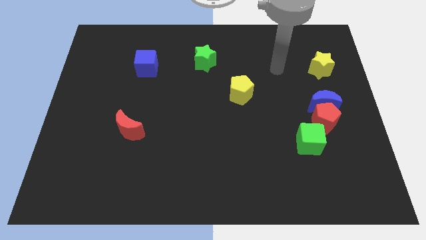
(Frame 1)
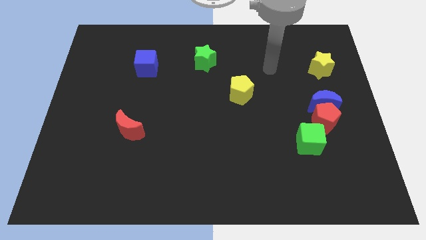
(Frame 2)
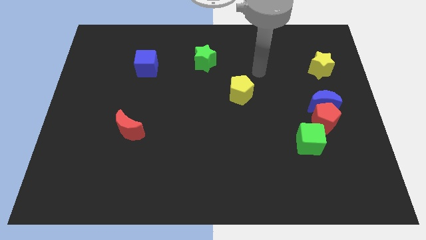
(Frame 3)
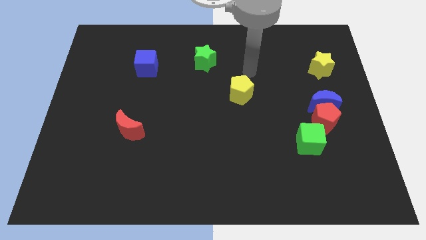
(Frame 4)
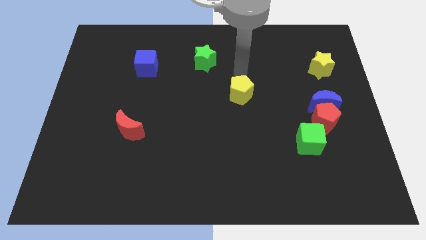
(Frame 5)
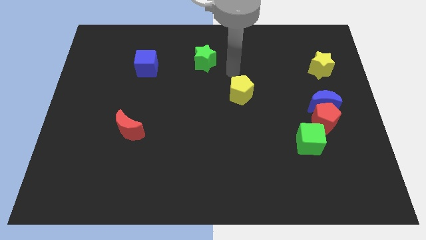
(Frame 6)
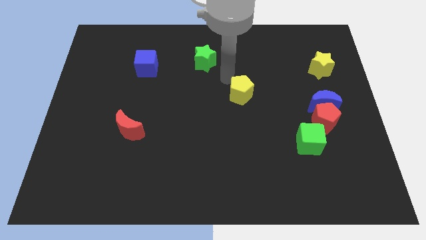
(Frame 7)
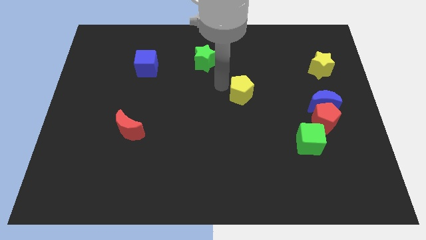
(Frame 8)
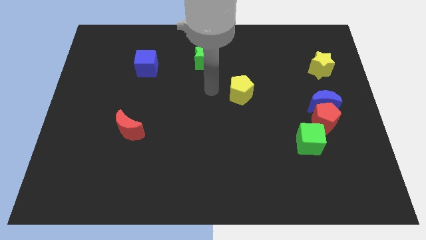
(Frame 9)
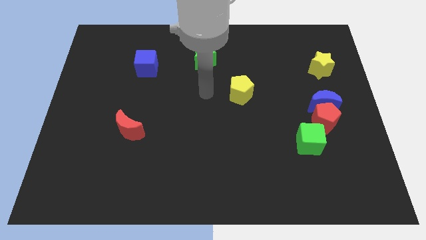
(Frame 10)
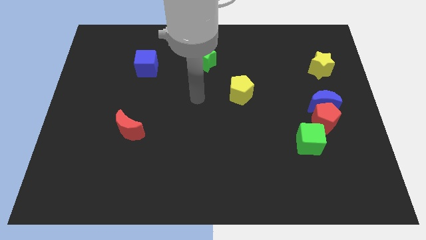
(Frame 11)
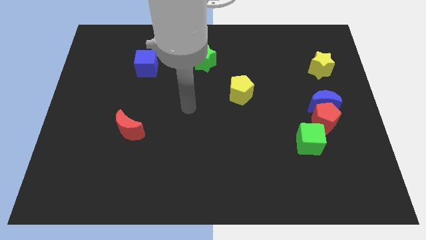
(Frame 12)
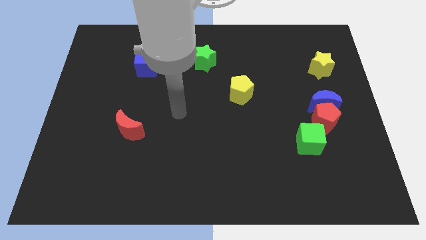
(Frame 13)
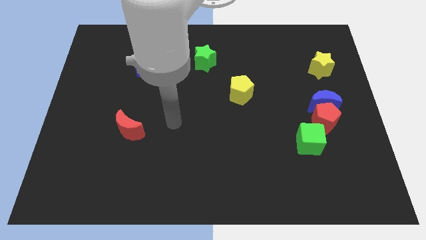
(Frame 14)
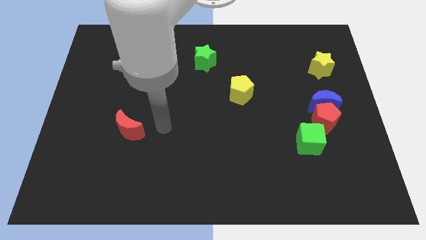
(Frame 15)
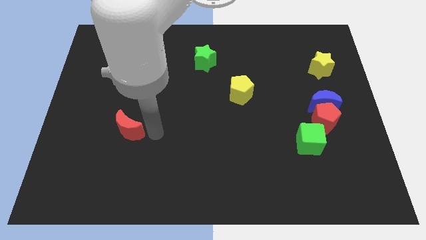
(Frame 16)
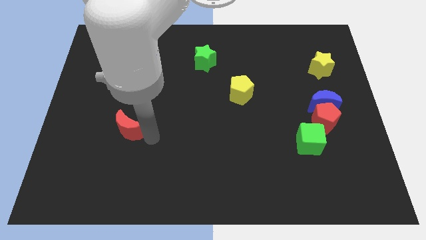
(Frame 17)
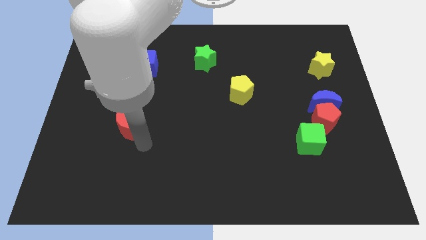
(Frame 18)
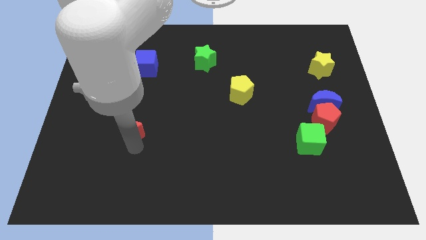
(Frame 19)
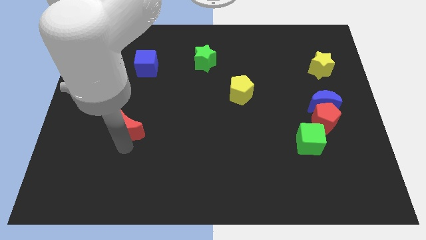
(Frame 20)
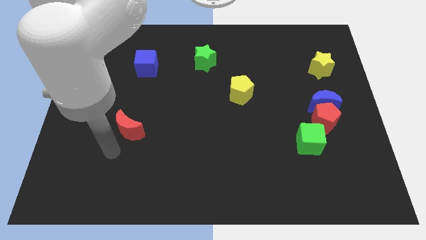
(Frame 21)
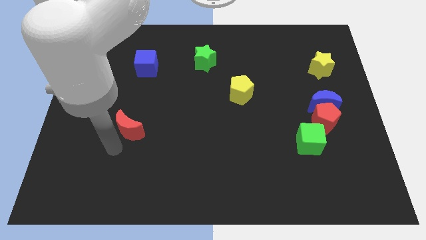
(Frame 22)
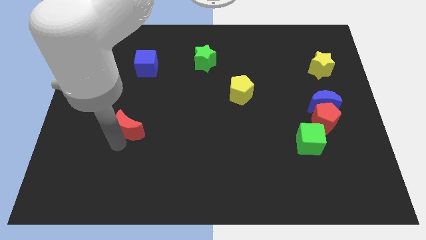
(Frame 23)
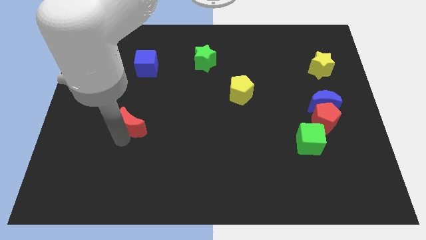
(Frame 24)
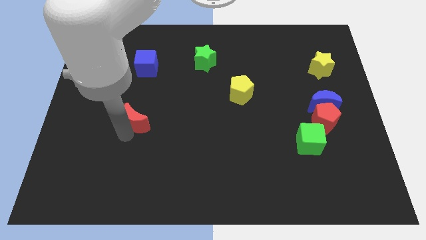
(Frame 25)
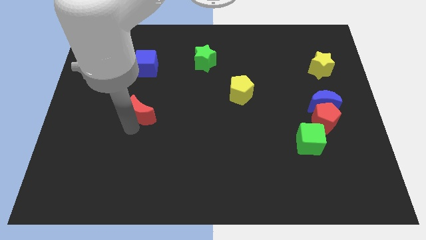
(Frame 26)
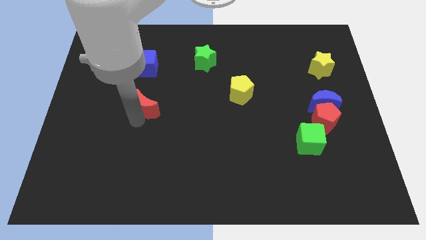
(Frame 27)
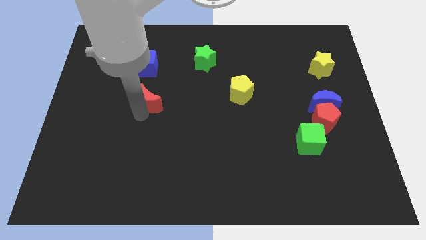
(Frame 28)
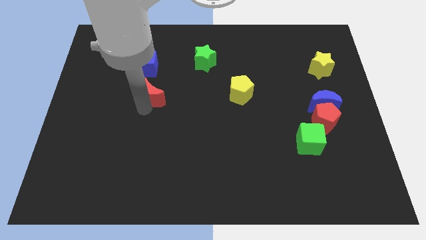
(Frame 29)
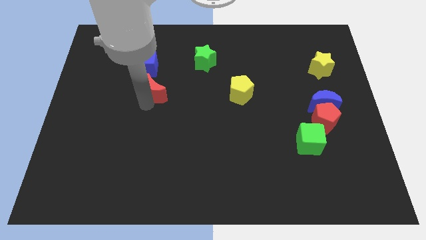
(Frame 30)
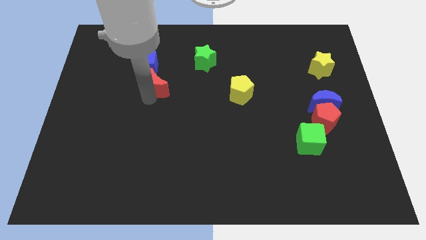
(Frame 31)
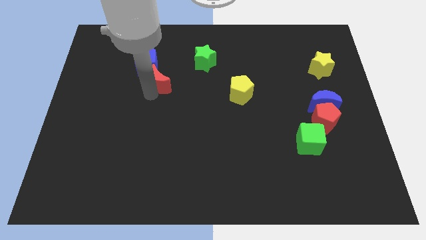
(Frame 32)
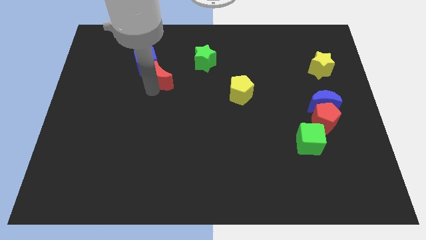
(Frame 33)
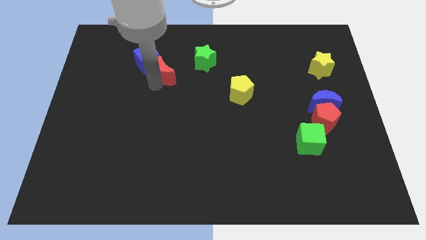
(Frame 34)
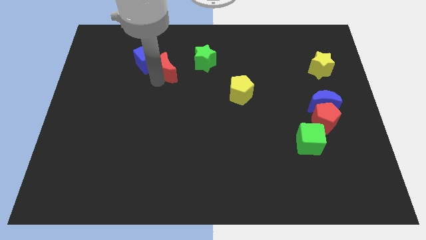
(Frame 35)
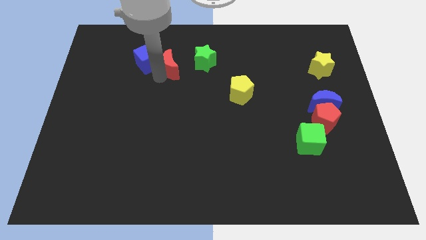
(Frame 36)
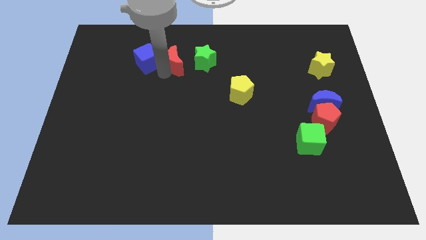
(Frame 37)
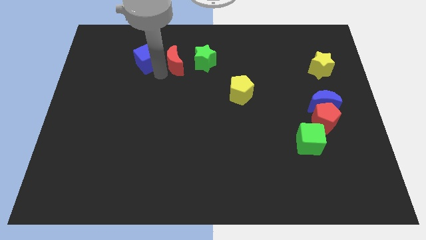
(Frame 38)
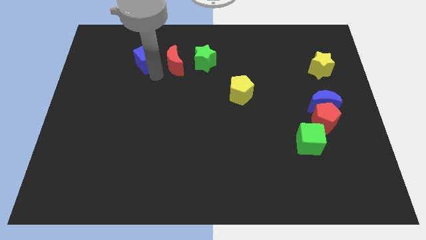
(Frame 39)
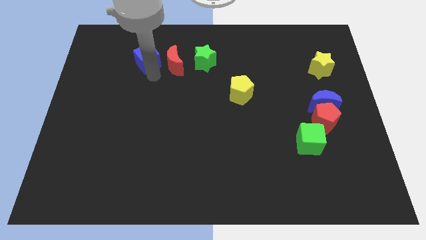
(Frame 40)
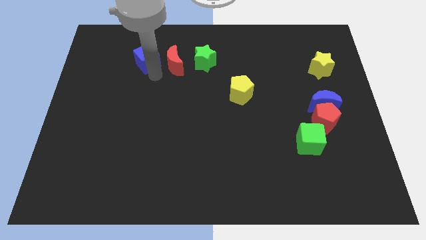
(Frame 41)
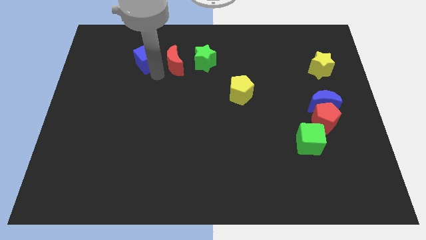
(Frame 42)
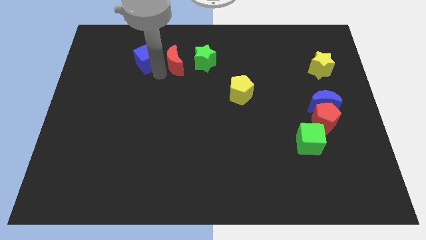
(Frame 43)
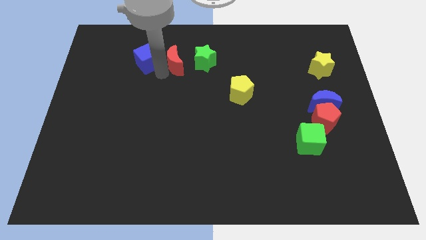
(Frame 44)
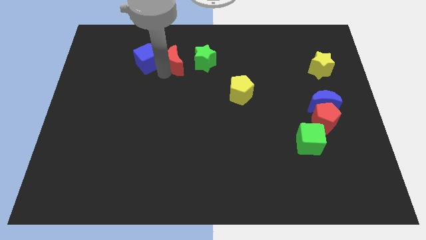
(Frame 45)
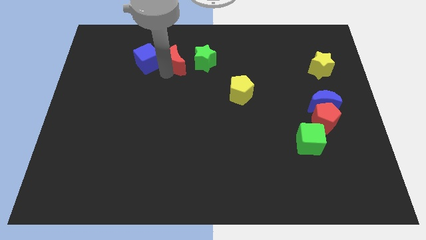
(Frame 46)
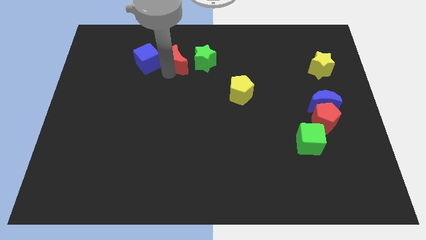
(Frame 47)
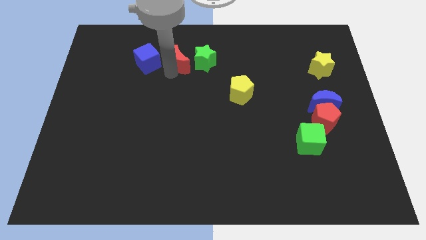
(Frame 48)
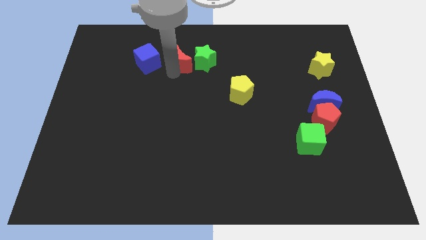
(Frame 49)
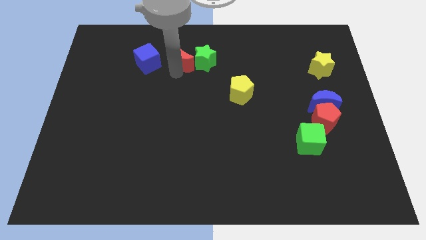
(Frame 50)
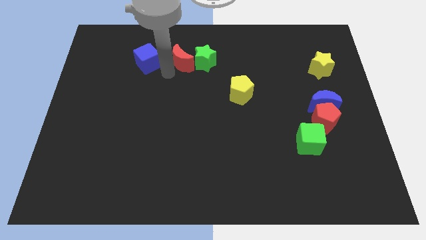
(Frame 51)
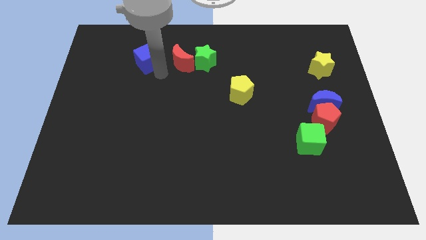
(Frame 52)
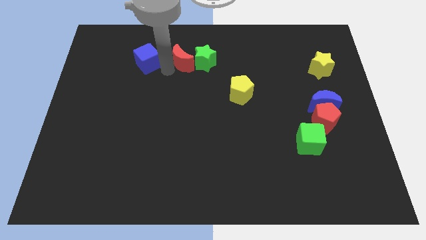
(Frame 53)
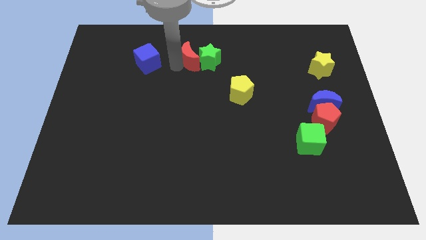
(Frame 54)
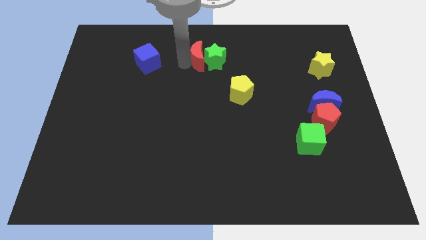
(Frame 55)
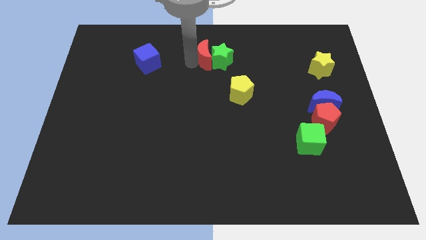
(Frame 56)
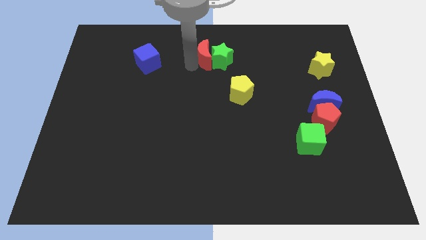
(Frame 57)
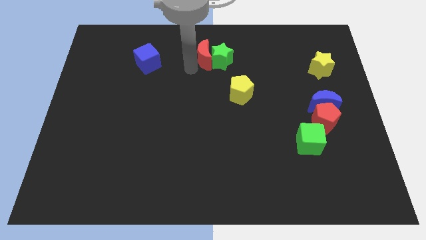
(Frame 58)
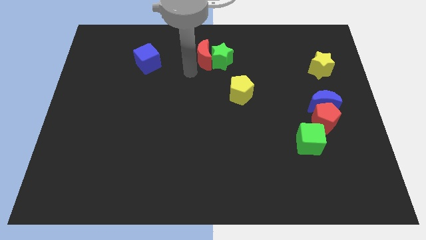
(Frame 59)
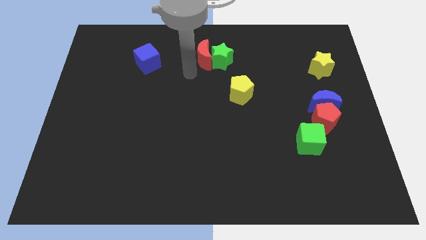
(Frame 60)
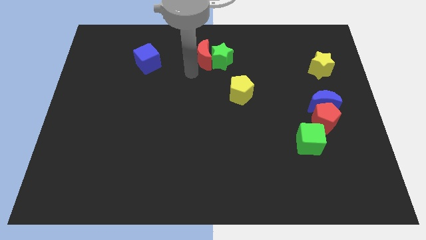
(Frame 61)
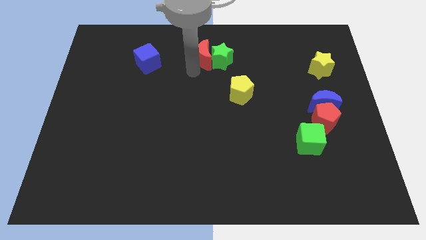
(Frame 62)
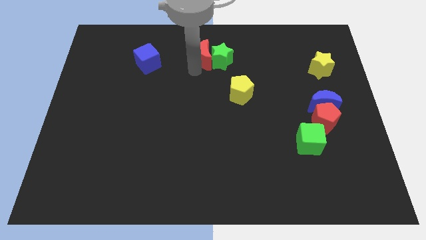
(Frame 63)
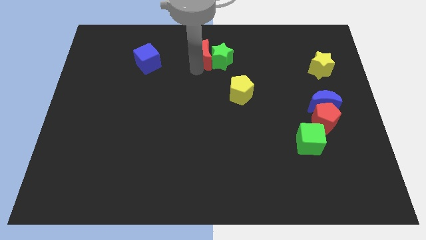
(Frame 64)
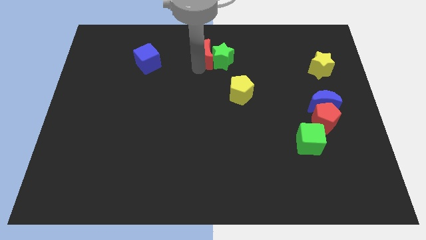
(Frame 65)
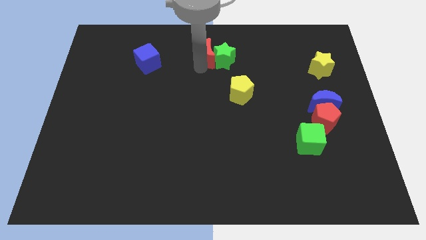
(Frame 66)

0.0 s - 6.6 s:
put the red moon to the top

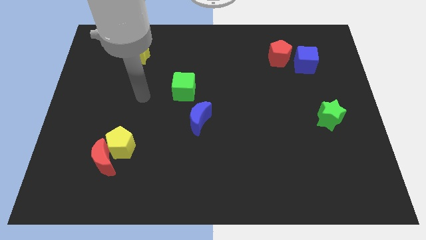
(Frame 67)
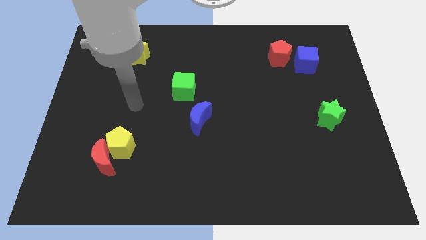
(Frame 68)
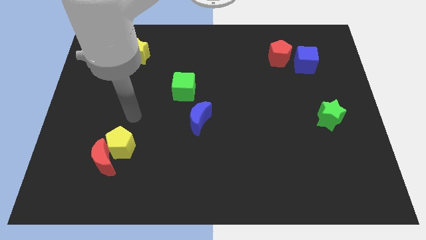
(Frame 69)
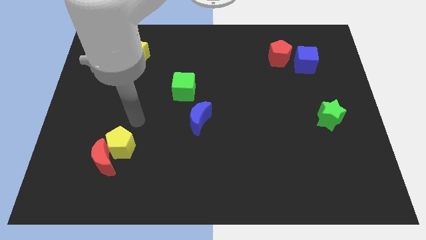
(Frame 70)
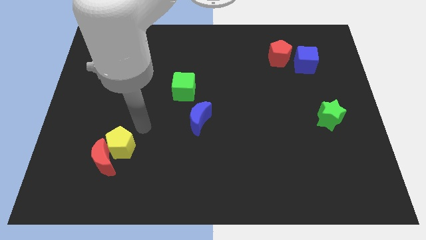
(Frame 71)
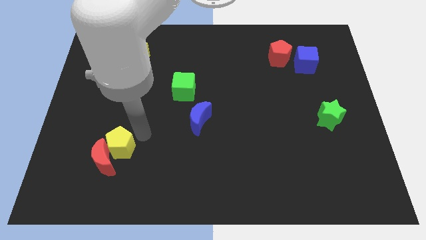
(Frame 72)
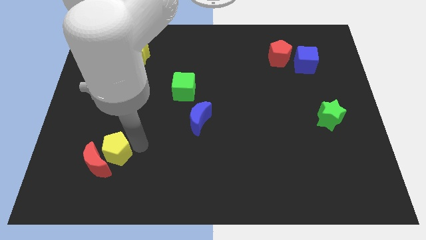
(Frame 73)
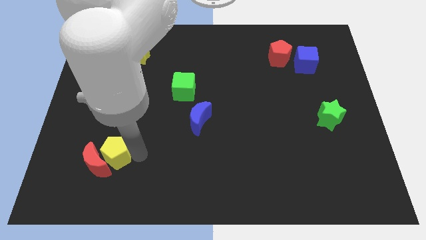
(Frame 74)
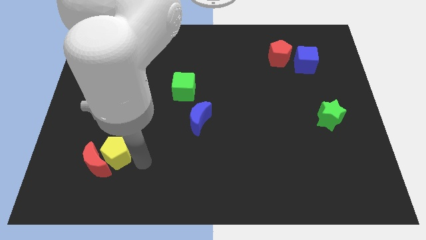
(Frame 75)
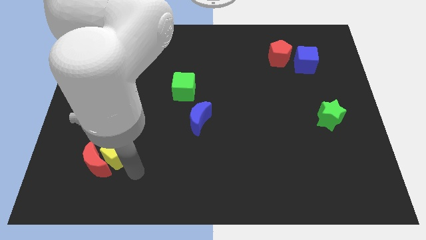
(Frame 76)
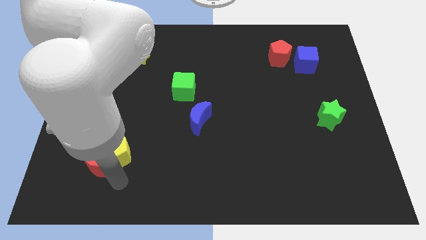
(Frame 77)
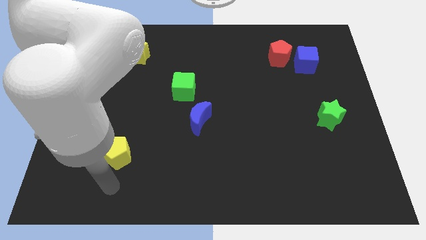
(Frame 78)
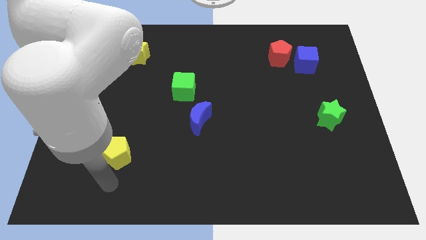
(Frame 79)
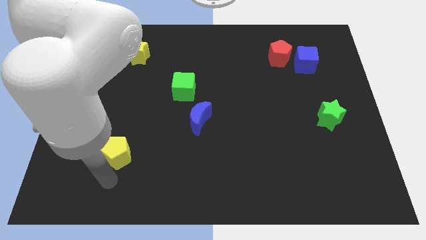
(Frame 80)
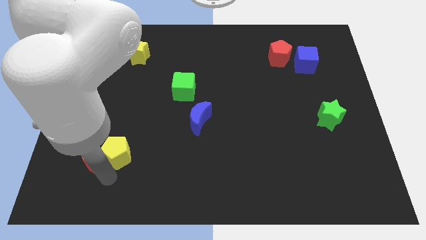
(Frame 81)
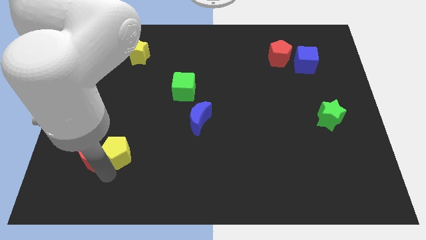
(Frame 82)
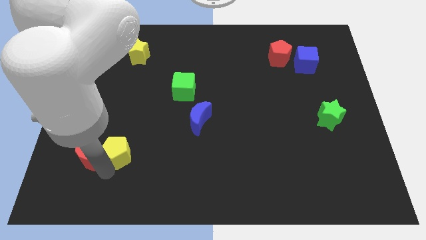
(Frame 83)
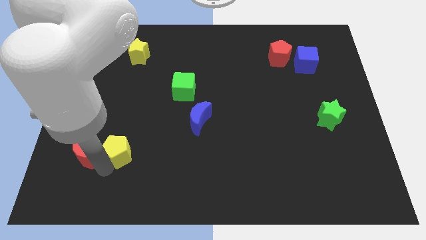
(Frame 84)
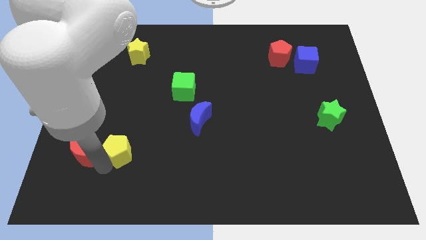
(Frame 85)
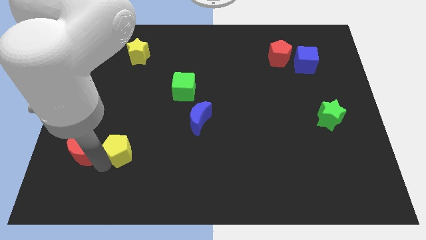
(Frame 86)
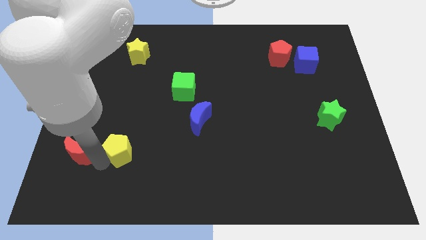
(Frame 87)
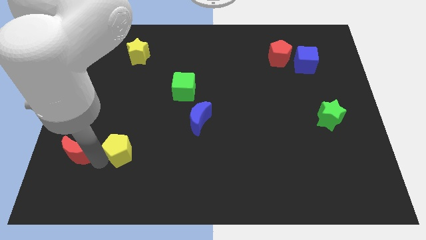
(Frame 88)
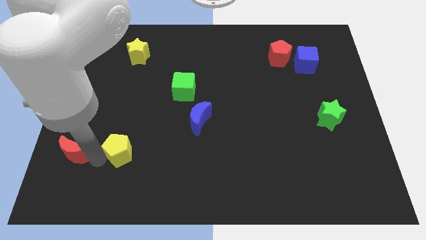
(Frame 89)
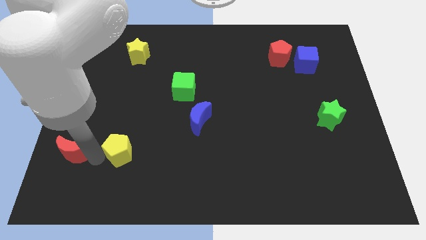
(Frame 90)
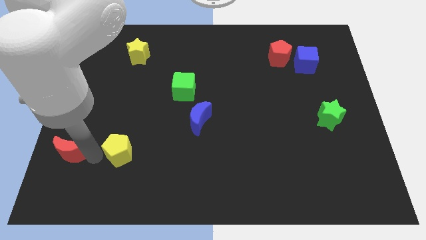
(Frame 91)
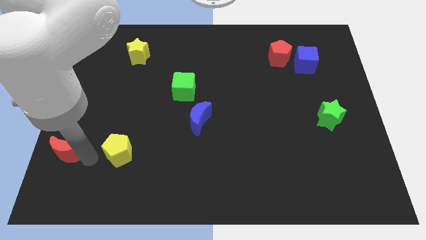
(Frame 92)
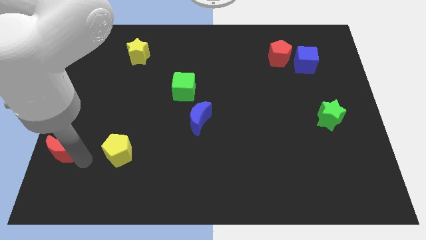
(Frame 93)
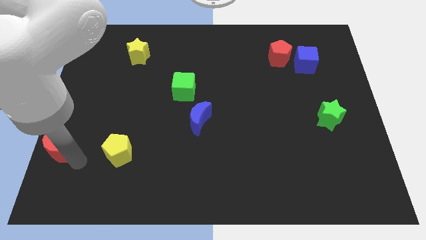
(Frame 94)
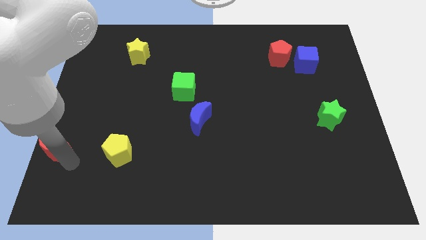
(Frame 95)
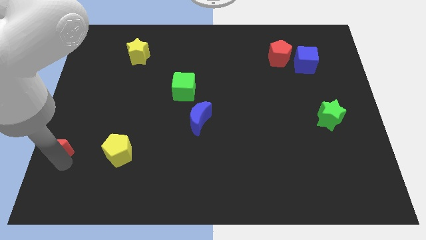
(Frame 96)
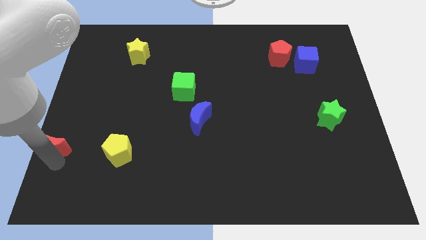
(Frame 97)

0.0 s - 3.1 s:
slide the red moon to the left side
